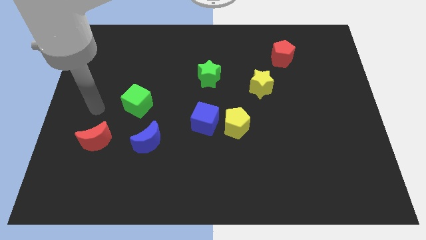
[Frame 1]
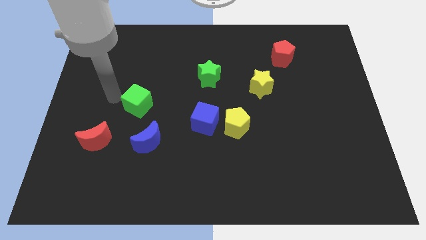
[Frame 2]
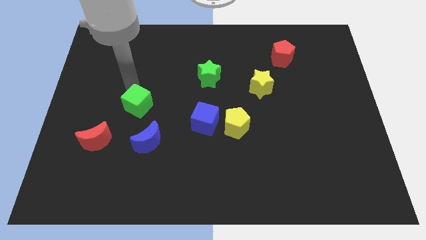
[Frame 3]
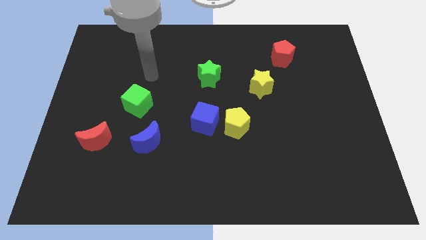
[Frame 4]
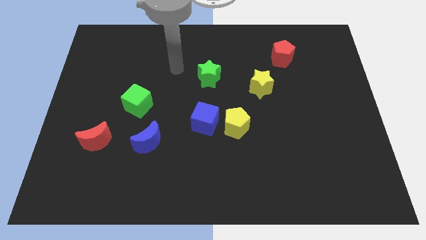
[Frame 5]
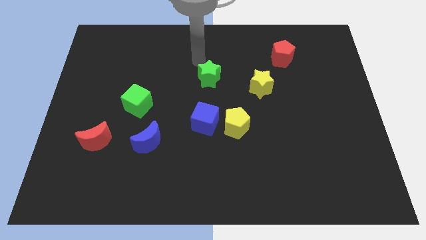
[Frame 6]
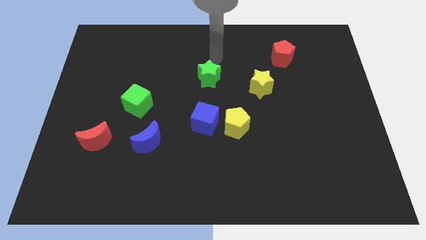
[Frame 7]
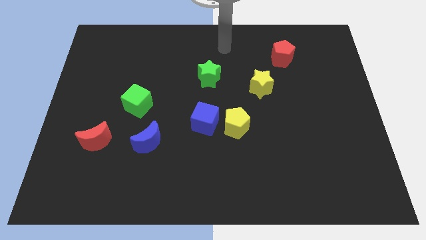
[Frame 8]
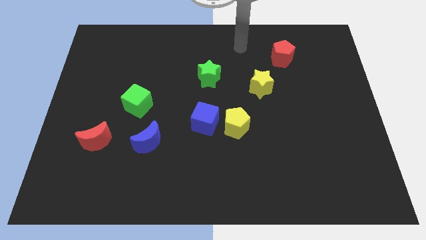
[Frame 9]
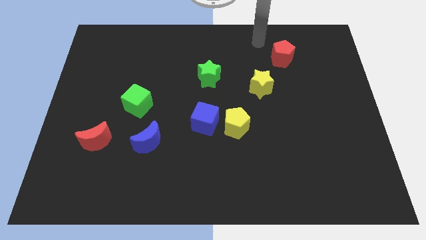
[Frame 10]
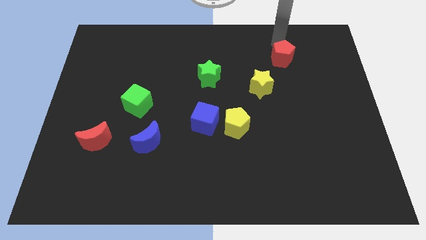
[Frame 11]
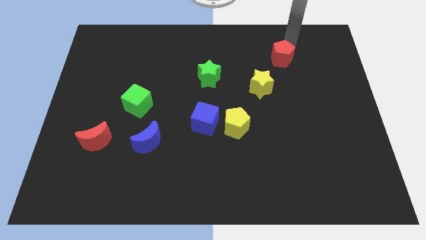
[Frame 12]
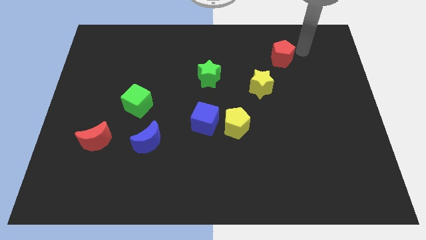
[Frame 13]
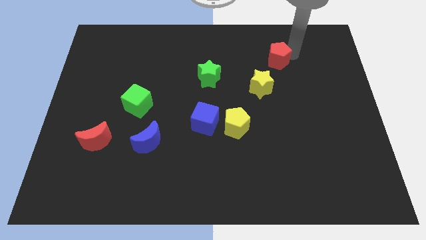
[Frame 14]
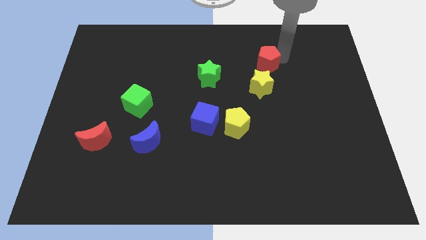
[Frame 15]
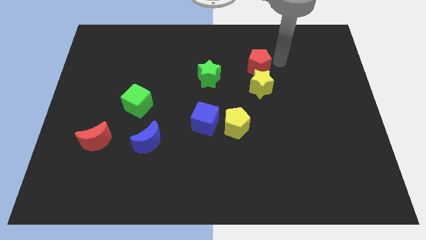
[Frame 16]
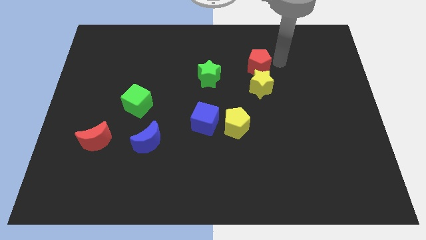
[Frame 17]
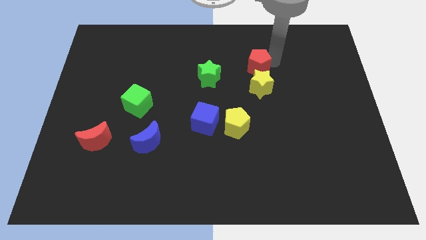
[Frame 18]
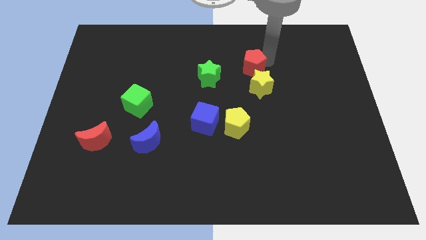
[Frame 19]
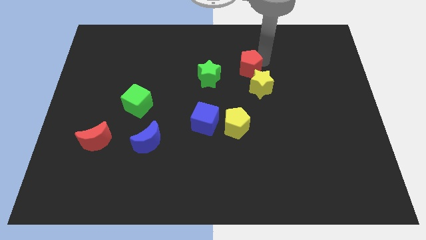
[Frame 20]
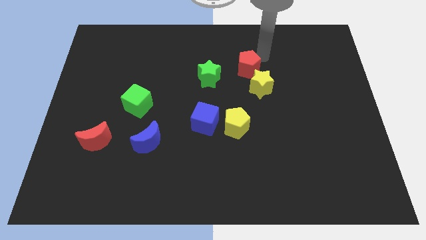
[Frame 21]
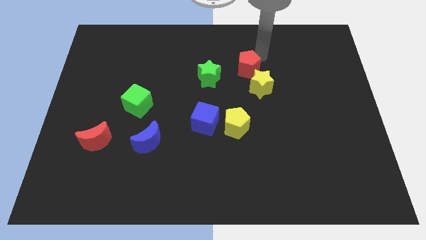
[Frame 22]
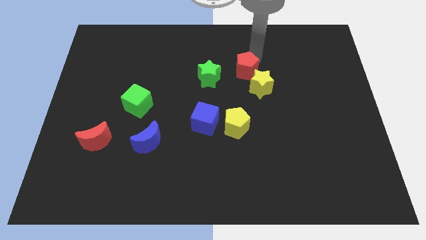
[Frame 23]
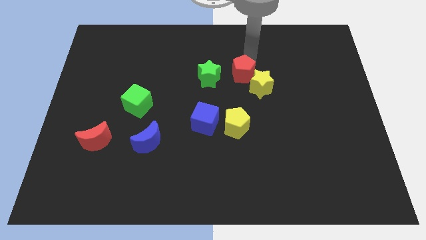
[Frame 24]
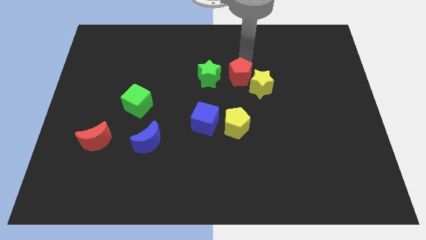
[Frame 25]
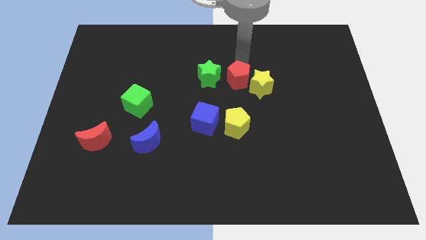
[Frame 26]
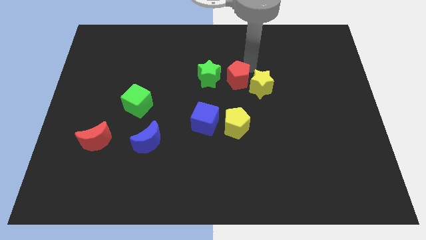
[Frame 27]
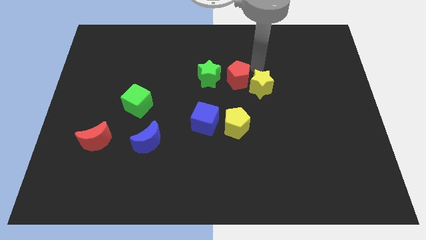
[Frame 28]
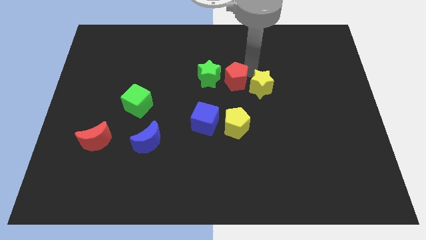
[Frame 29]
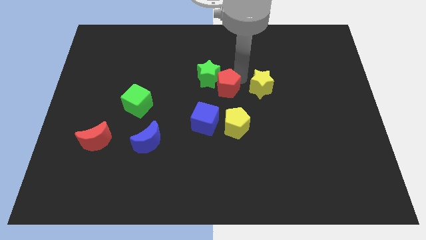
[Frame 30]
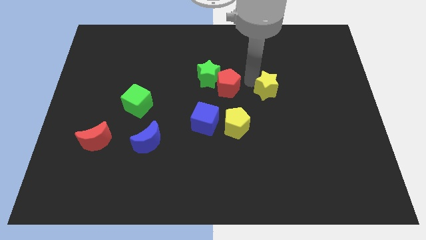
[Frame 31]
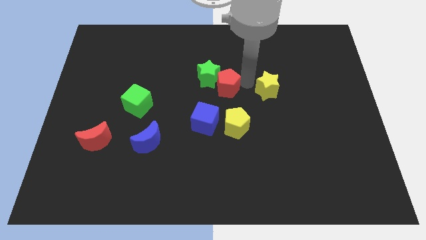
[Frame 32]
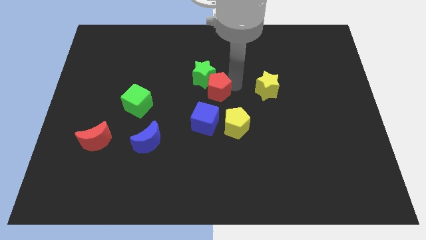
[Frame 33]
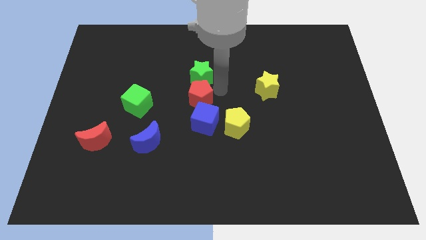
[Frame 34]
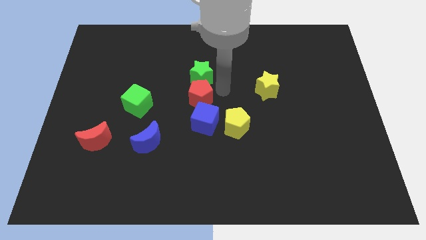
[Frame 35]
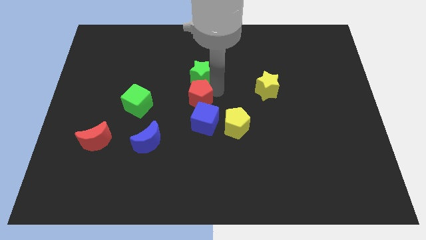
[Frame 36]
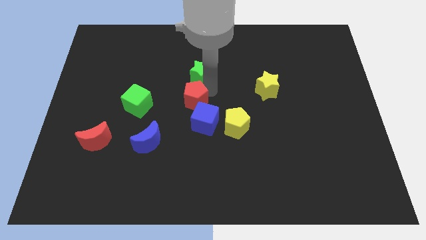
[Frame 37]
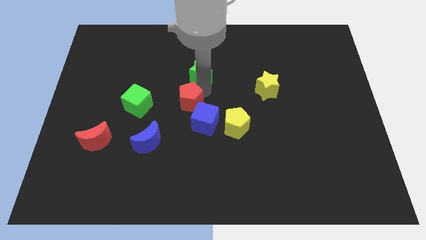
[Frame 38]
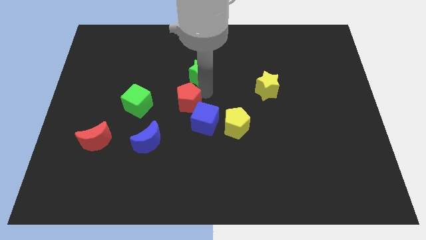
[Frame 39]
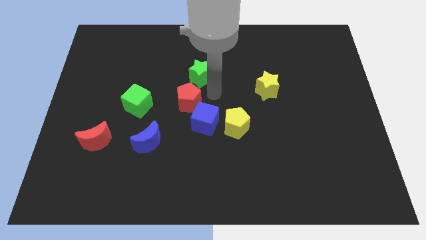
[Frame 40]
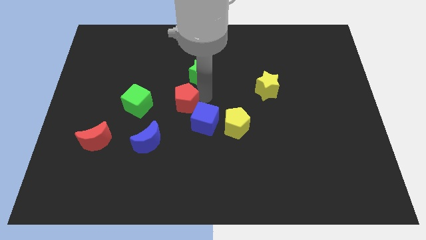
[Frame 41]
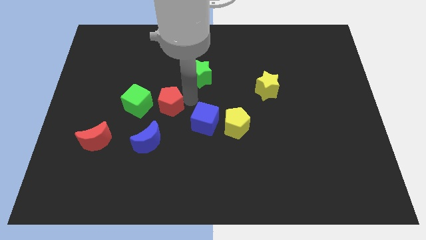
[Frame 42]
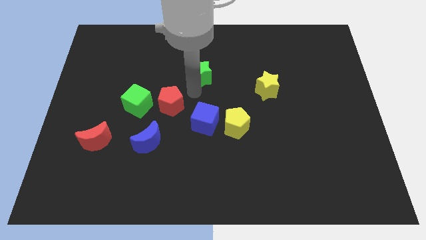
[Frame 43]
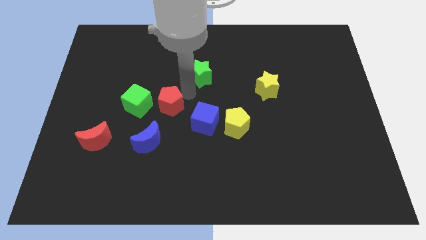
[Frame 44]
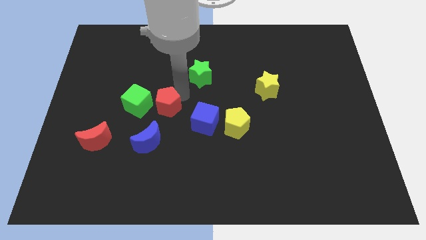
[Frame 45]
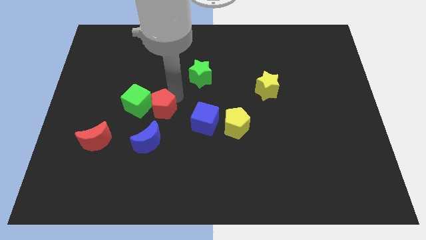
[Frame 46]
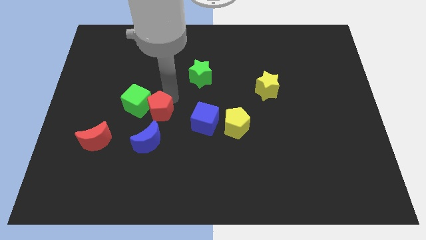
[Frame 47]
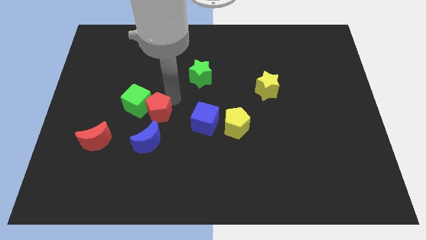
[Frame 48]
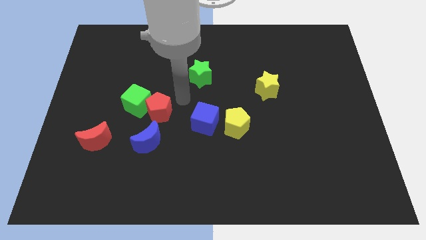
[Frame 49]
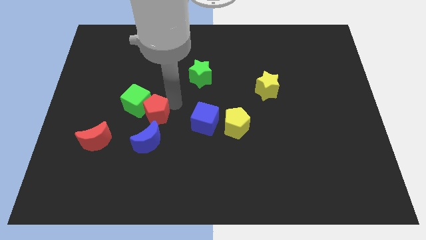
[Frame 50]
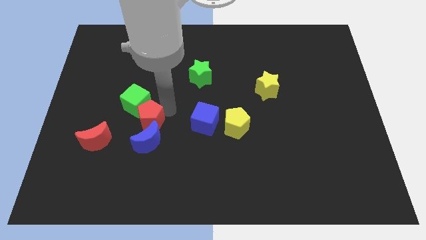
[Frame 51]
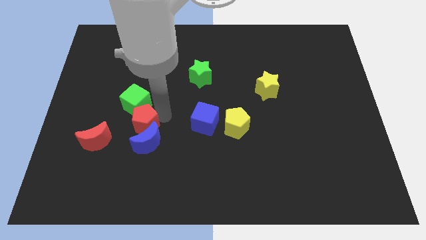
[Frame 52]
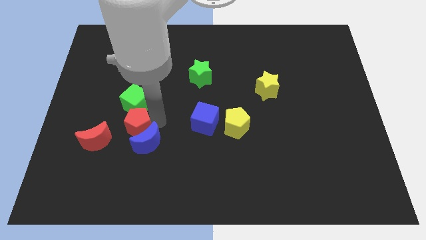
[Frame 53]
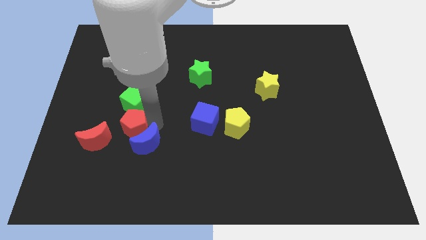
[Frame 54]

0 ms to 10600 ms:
put the red pentagon to the left of the blue moon

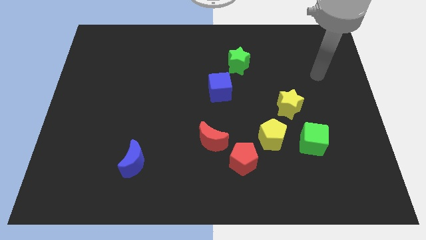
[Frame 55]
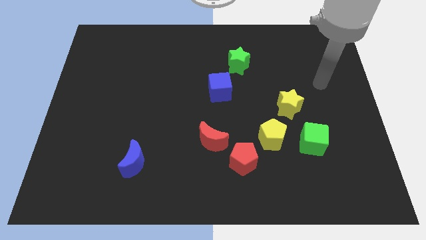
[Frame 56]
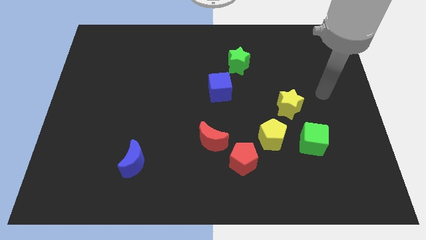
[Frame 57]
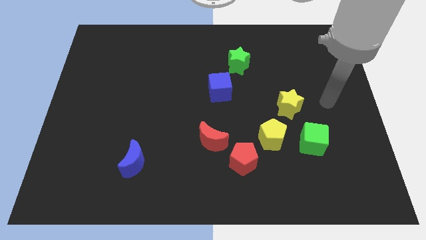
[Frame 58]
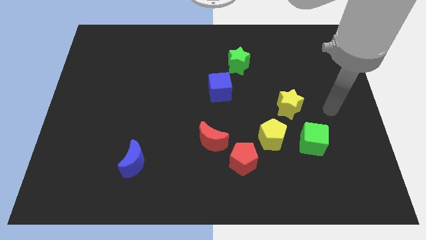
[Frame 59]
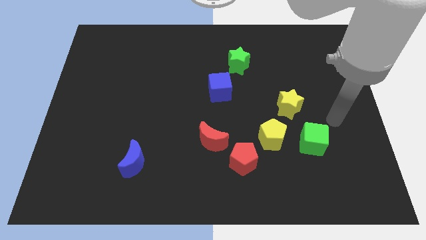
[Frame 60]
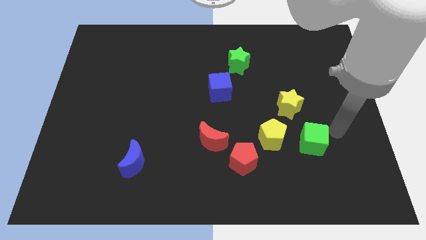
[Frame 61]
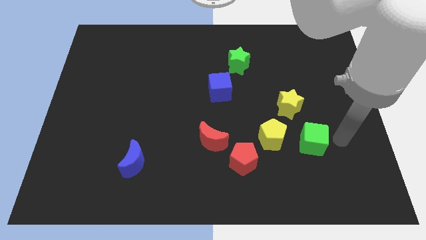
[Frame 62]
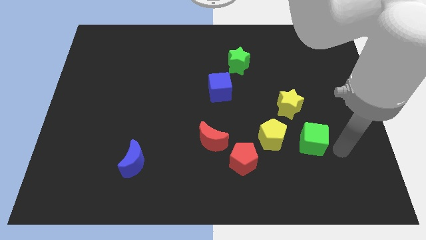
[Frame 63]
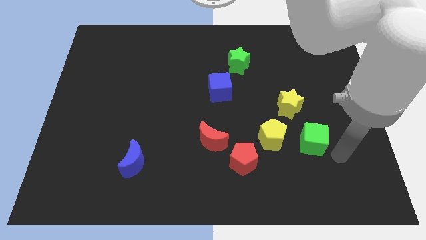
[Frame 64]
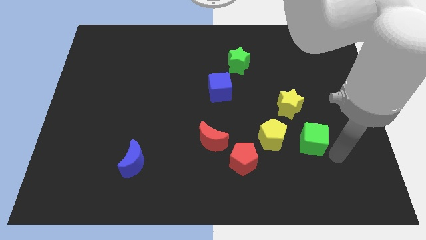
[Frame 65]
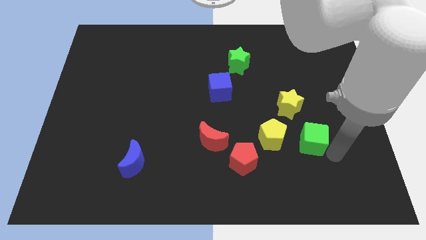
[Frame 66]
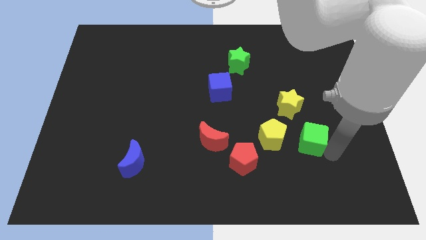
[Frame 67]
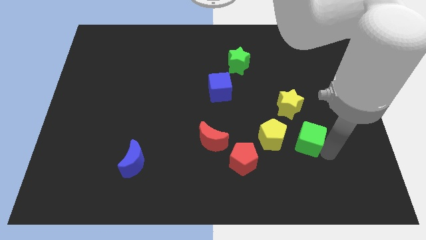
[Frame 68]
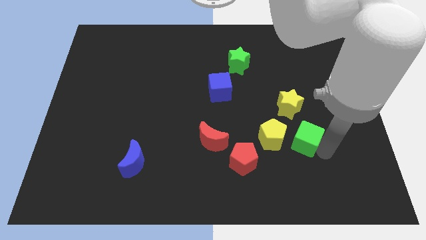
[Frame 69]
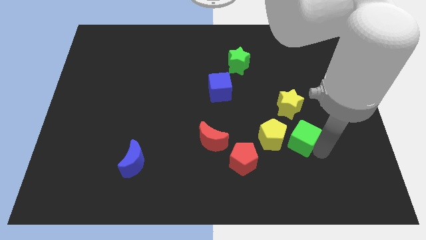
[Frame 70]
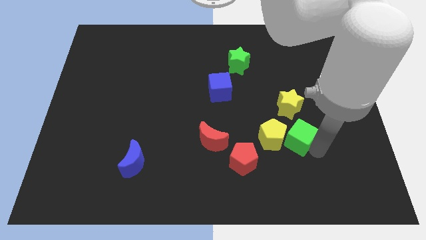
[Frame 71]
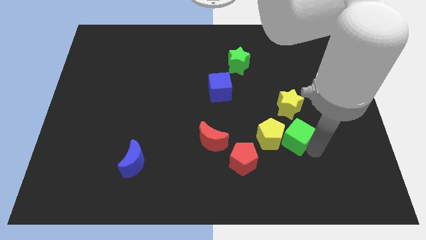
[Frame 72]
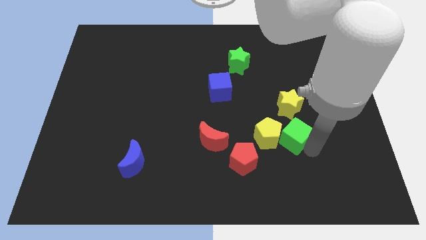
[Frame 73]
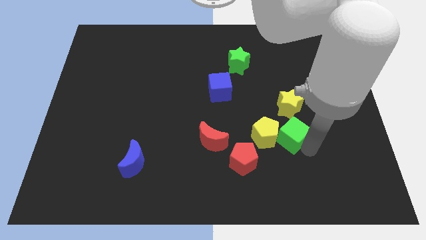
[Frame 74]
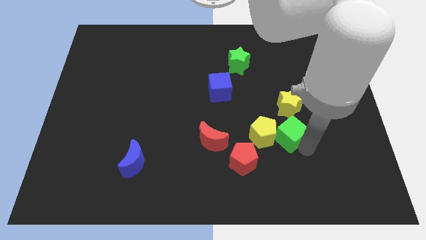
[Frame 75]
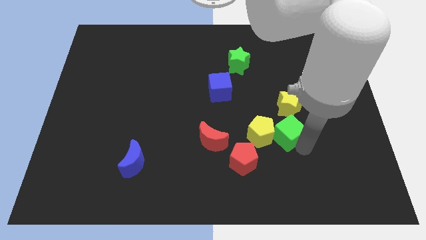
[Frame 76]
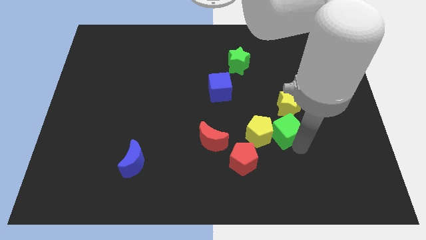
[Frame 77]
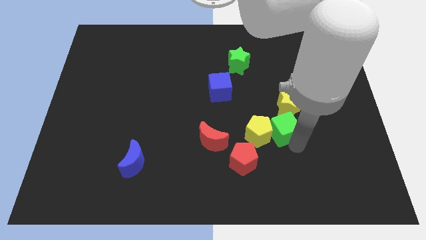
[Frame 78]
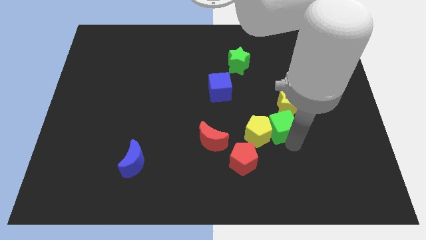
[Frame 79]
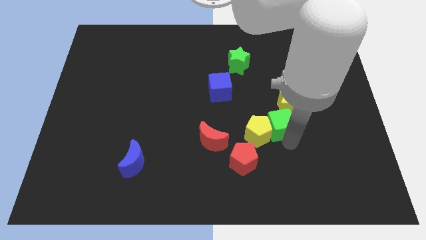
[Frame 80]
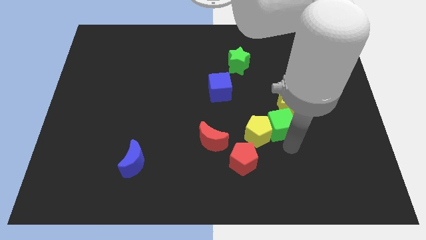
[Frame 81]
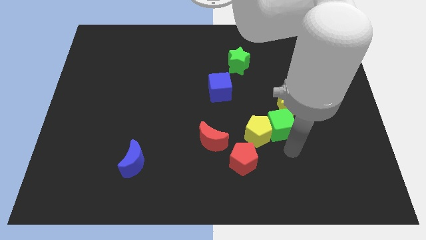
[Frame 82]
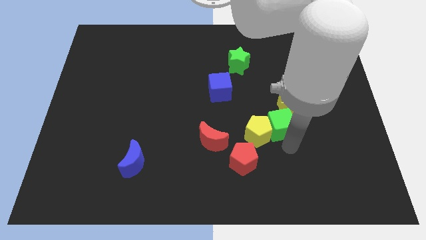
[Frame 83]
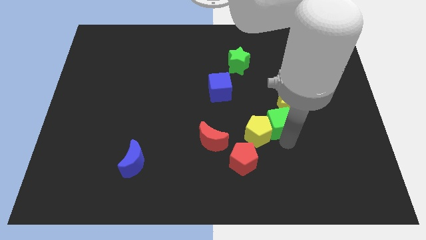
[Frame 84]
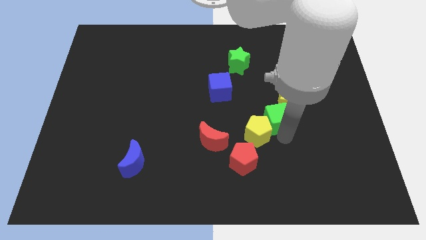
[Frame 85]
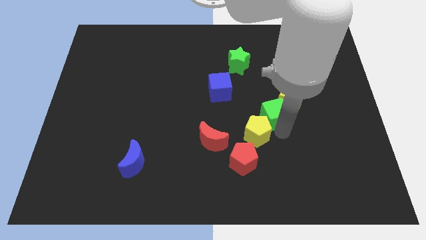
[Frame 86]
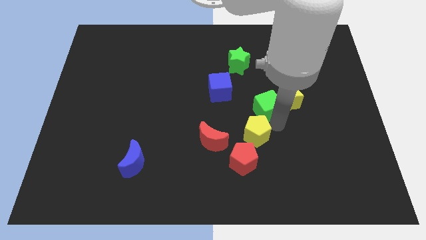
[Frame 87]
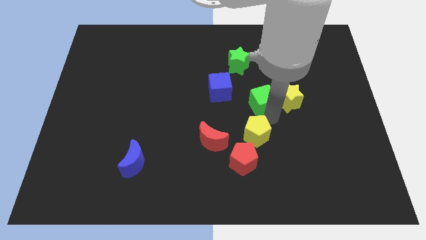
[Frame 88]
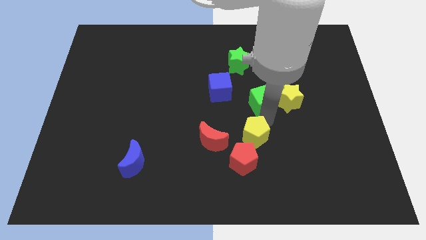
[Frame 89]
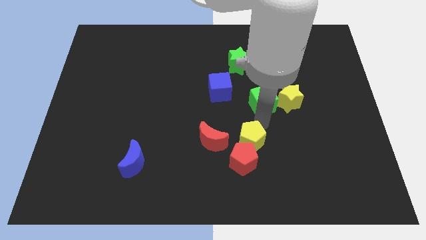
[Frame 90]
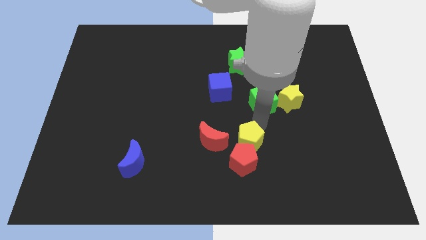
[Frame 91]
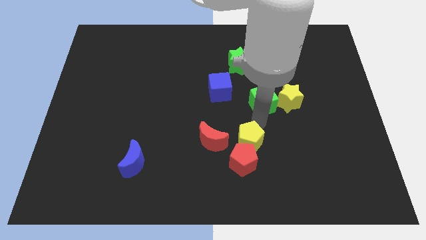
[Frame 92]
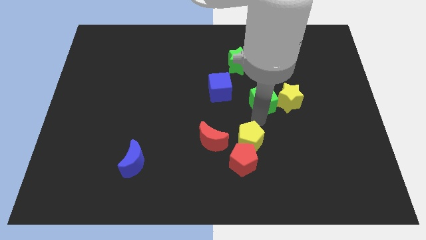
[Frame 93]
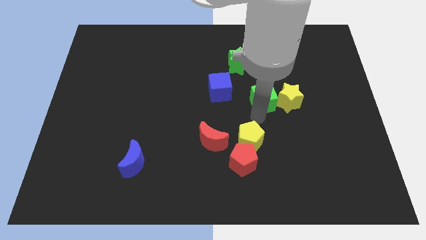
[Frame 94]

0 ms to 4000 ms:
move the green cube to the top left of the yellow star
